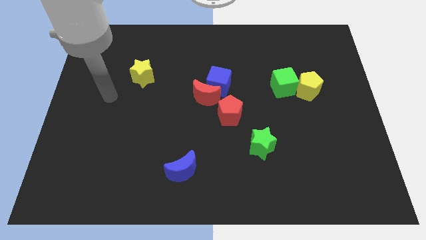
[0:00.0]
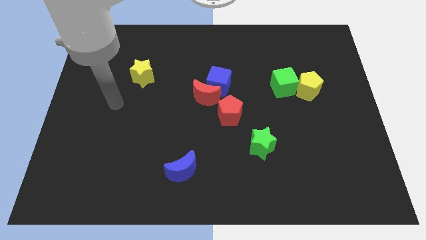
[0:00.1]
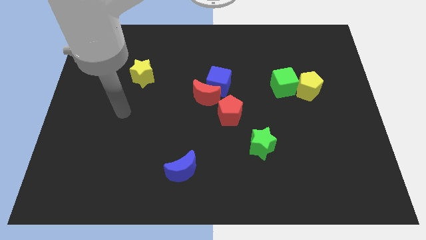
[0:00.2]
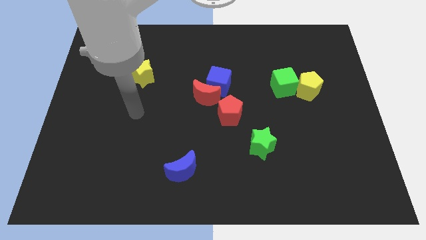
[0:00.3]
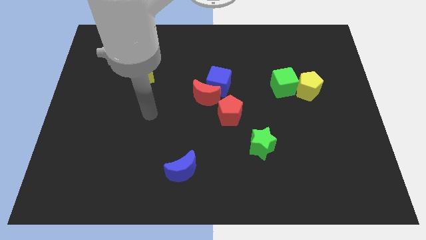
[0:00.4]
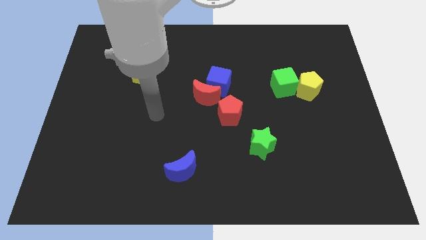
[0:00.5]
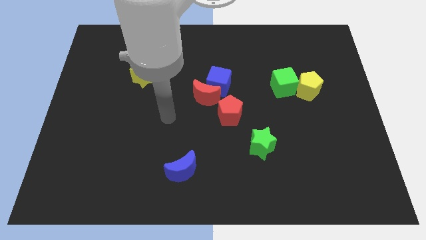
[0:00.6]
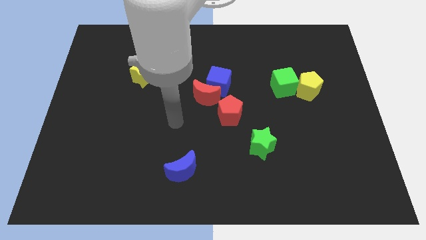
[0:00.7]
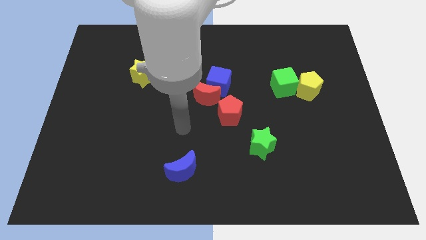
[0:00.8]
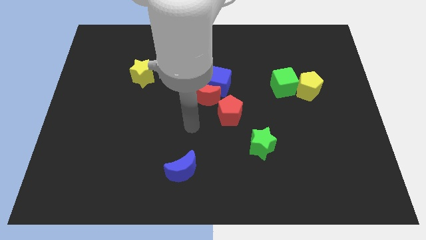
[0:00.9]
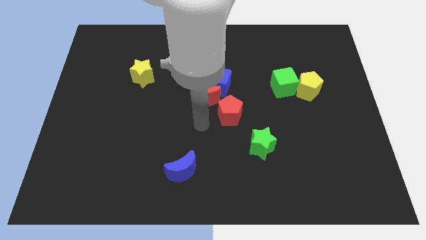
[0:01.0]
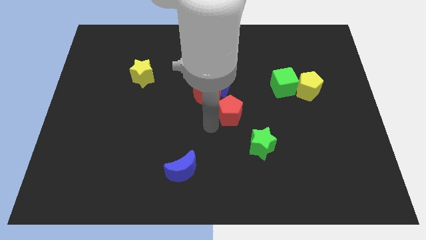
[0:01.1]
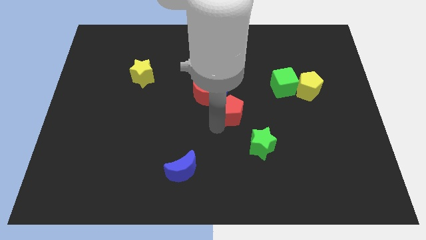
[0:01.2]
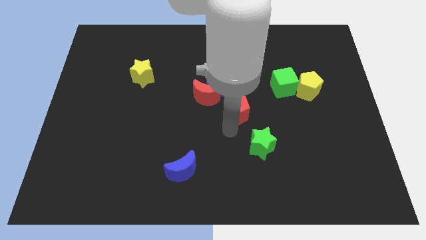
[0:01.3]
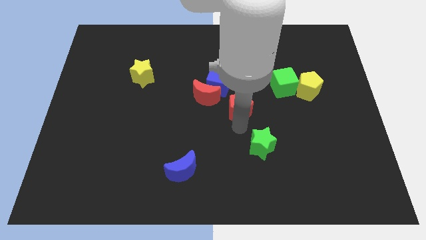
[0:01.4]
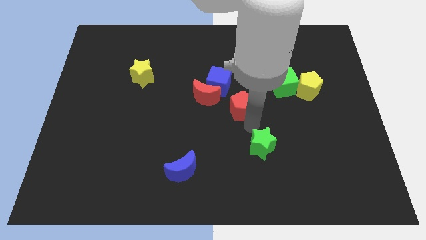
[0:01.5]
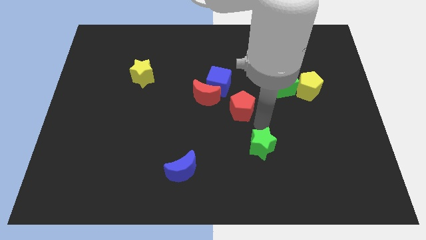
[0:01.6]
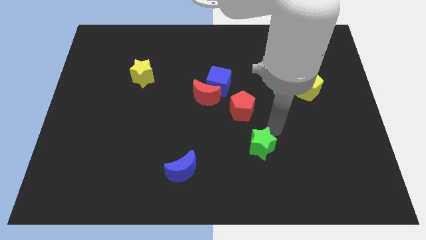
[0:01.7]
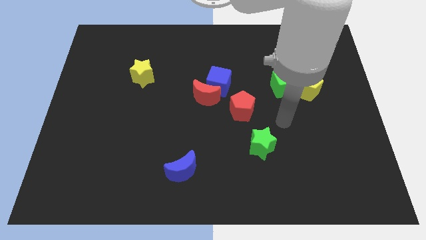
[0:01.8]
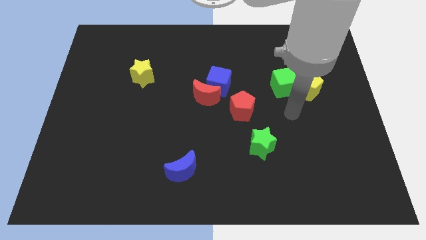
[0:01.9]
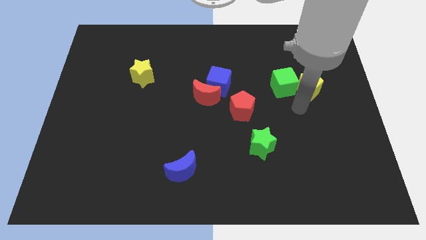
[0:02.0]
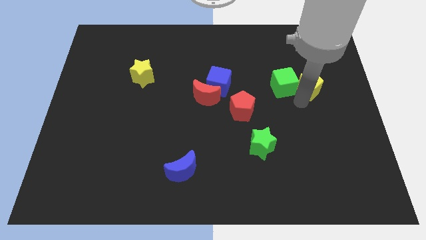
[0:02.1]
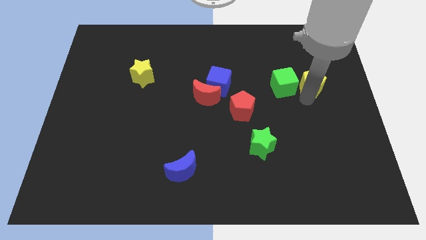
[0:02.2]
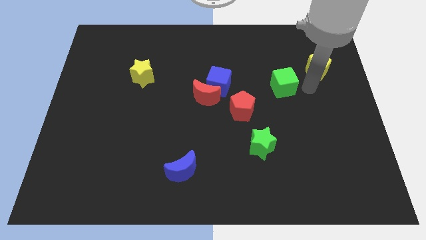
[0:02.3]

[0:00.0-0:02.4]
pull the green cube apart from the yellow pentagon

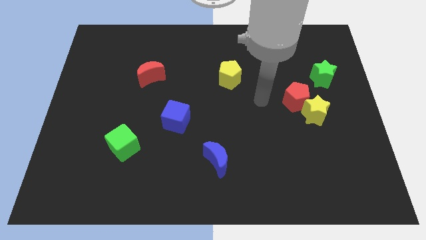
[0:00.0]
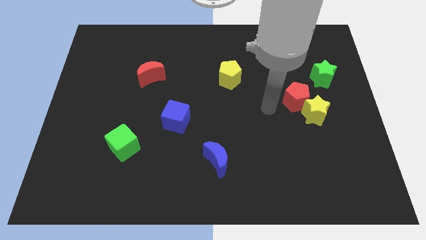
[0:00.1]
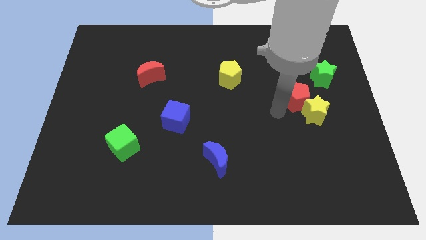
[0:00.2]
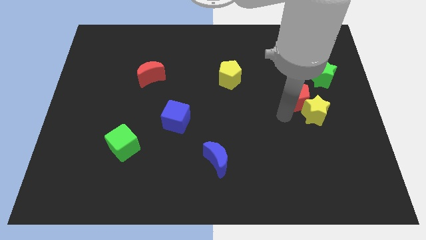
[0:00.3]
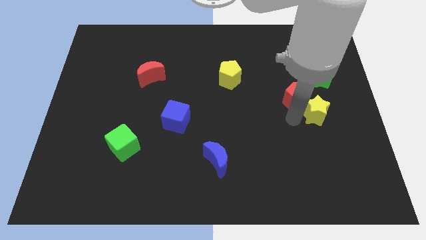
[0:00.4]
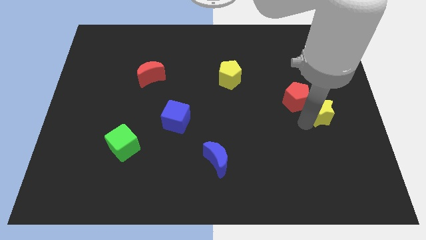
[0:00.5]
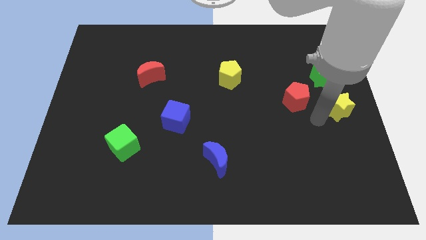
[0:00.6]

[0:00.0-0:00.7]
pull the red pentagon apart from the yellow star

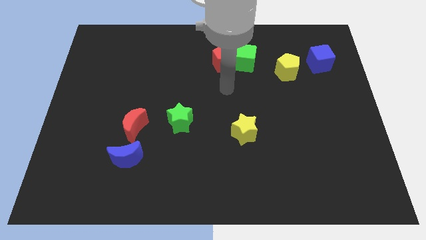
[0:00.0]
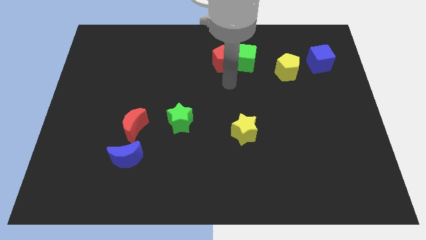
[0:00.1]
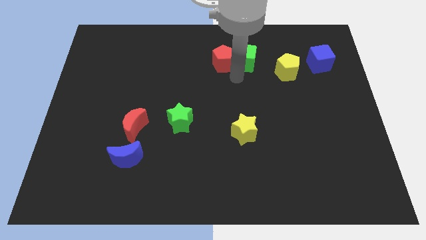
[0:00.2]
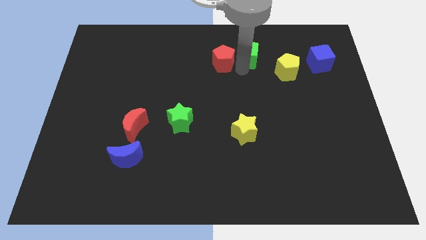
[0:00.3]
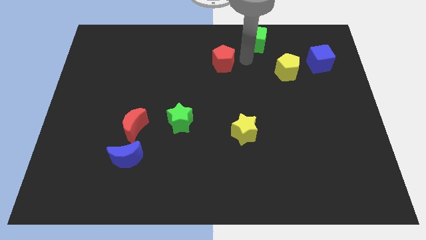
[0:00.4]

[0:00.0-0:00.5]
separate the red pentagon from the green cube

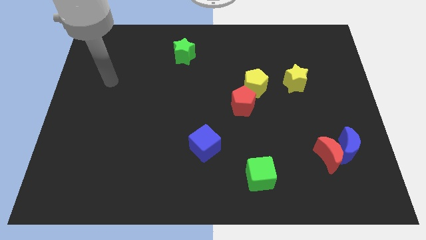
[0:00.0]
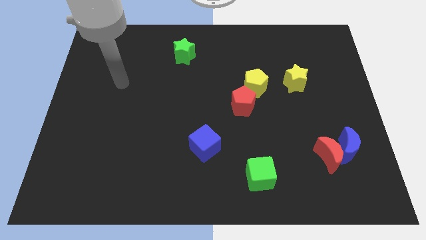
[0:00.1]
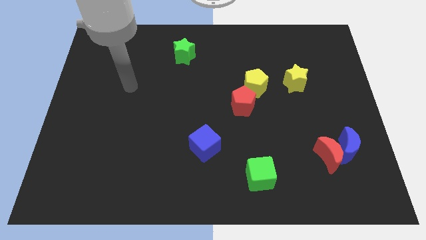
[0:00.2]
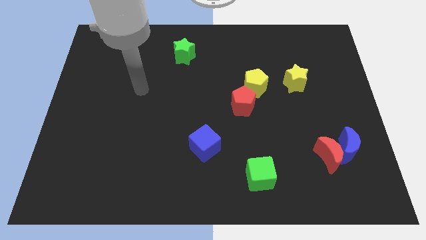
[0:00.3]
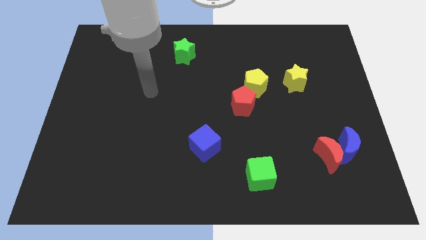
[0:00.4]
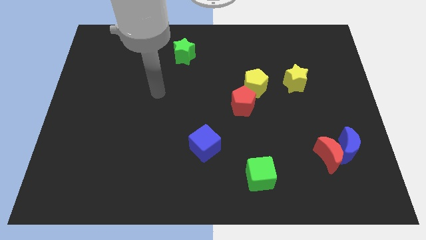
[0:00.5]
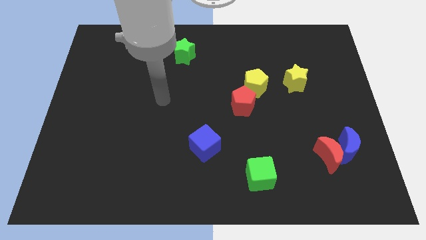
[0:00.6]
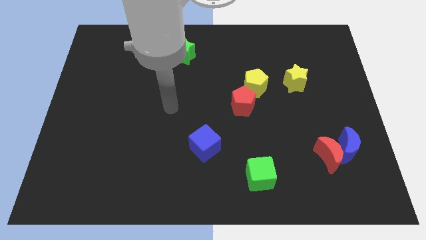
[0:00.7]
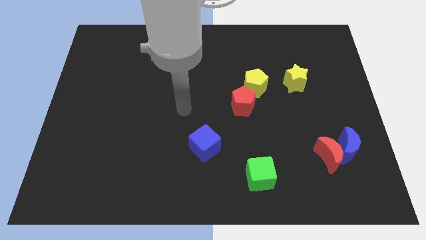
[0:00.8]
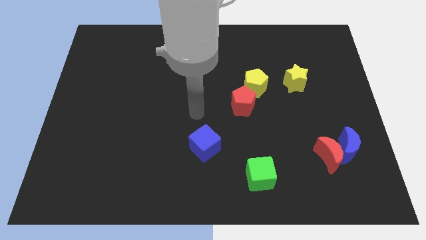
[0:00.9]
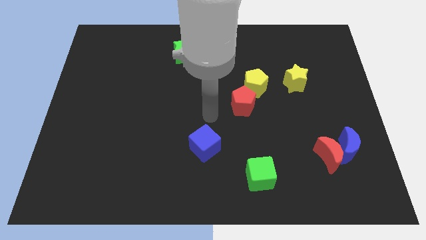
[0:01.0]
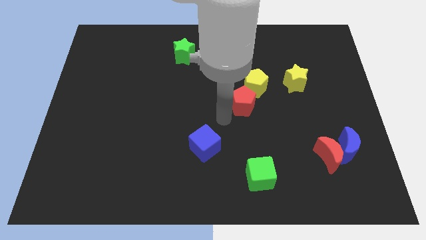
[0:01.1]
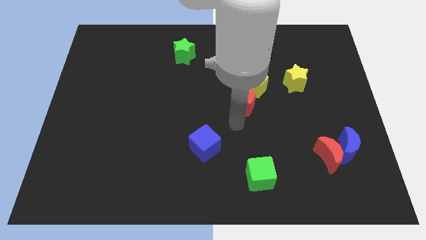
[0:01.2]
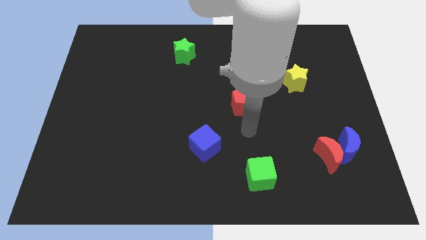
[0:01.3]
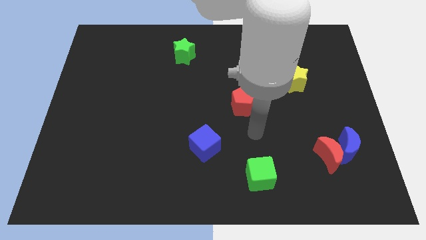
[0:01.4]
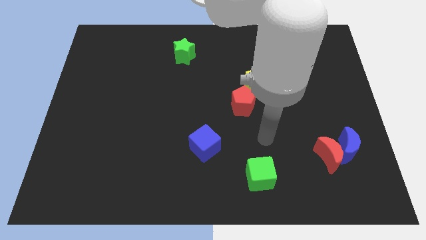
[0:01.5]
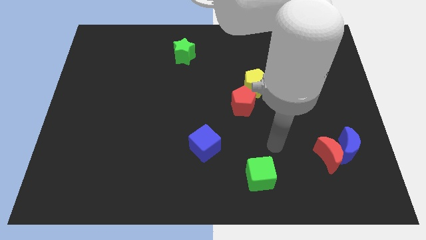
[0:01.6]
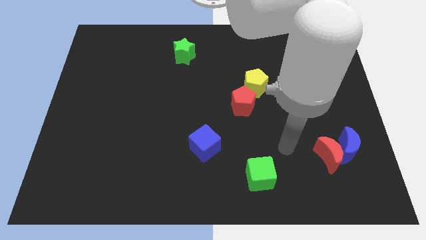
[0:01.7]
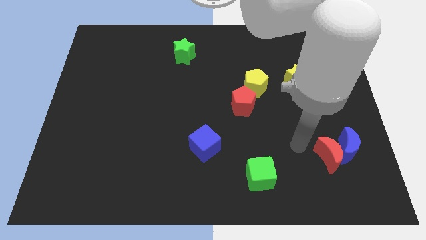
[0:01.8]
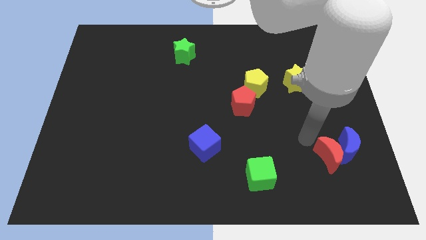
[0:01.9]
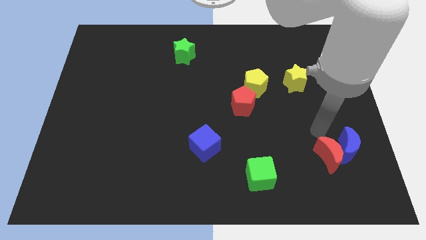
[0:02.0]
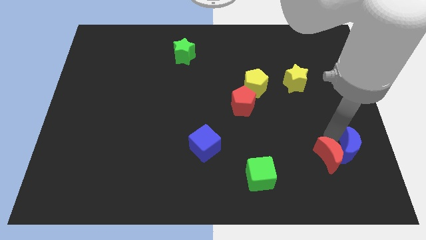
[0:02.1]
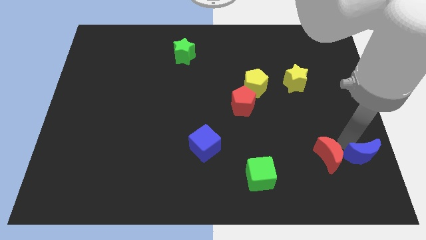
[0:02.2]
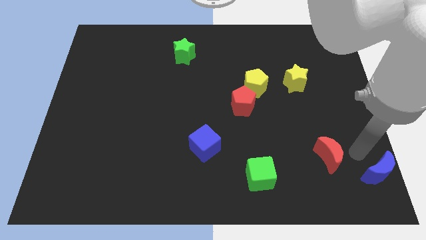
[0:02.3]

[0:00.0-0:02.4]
move the red moon away from the blue moon

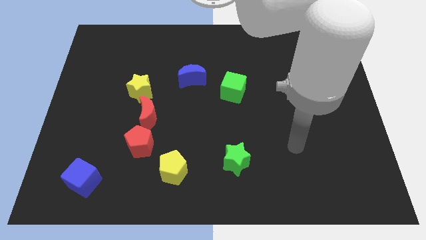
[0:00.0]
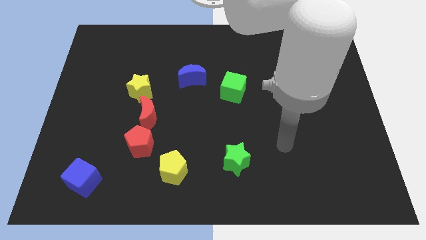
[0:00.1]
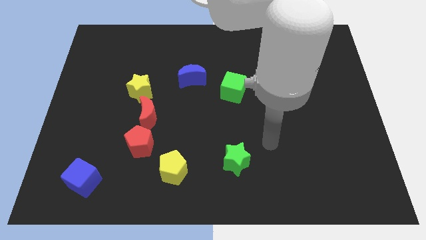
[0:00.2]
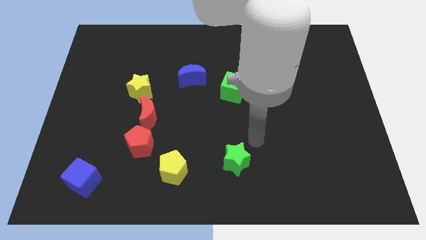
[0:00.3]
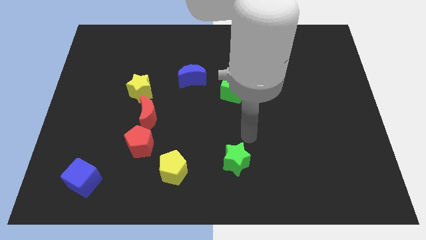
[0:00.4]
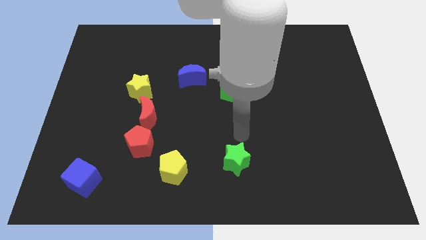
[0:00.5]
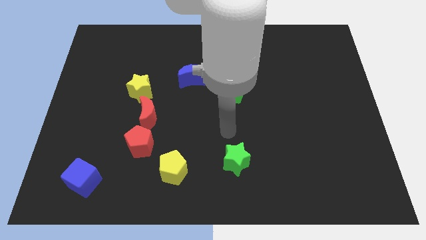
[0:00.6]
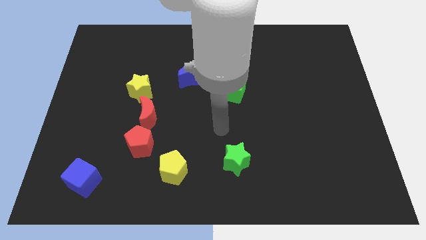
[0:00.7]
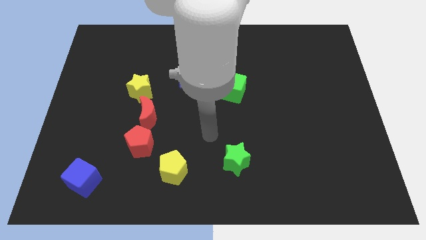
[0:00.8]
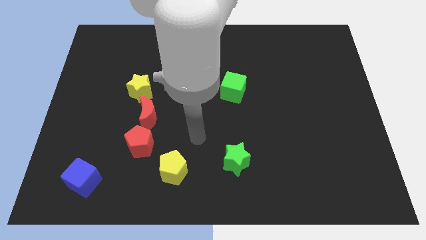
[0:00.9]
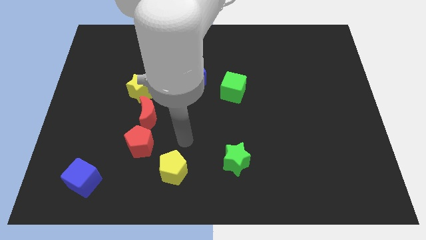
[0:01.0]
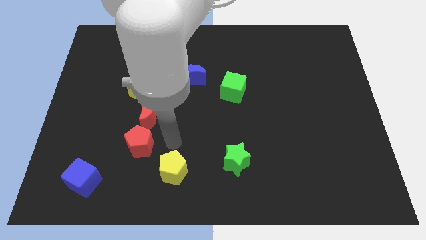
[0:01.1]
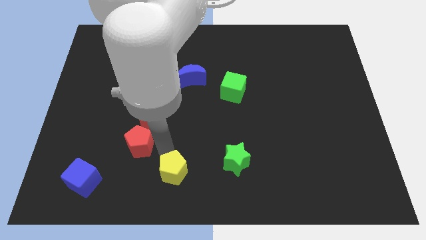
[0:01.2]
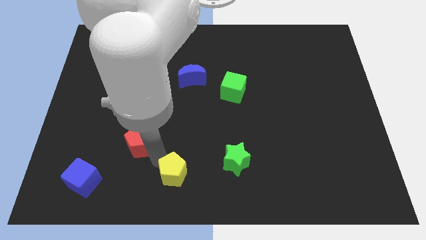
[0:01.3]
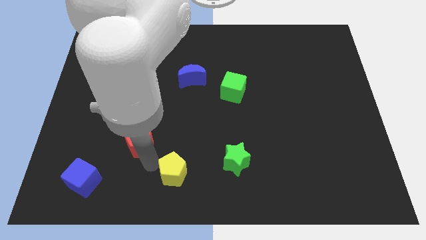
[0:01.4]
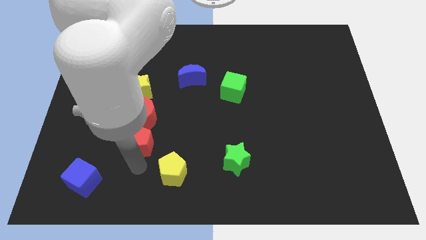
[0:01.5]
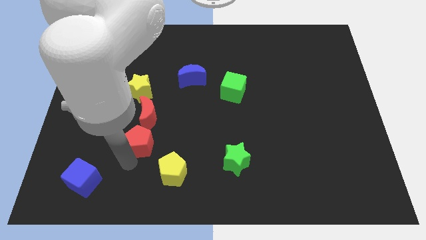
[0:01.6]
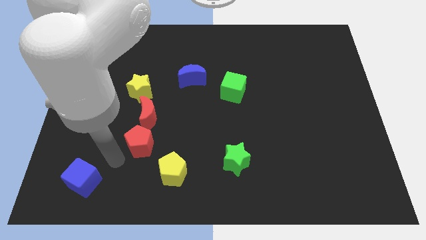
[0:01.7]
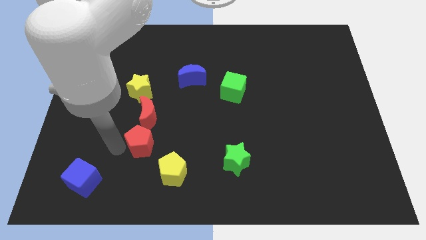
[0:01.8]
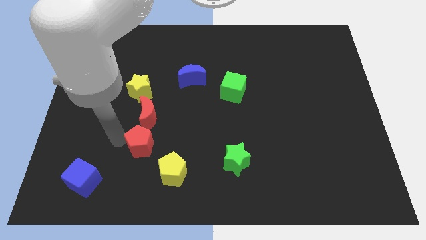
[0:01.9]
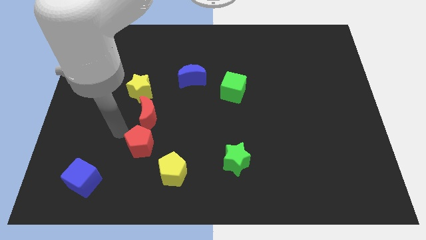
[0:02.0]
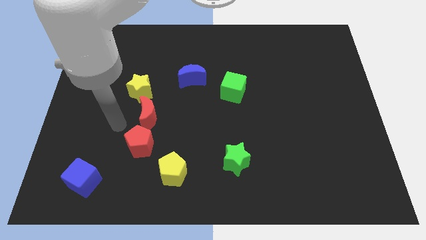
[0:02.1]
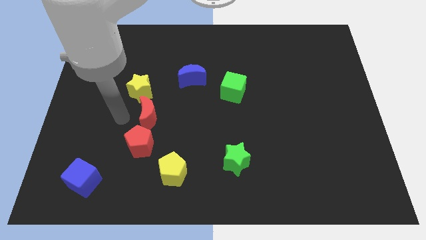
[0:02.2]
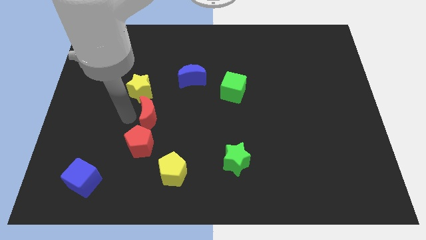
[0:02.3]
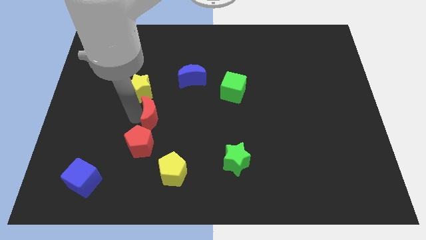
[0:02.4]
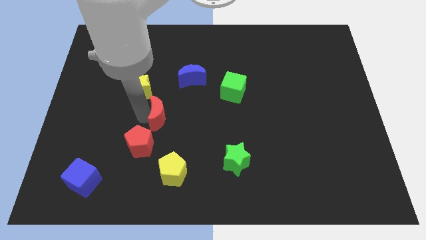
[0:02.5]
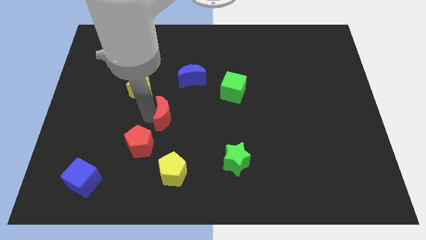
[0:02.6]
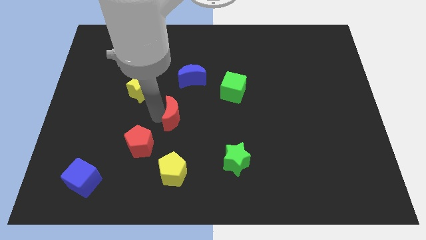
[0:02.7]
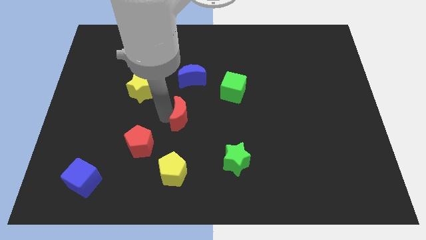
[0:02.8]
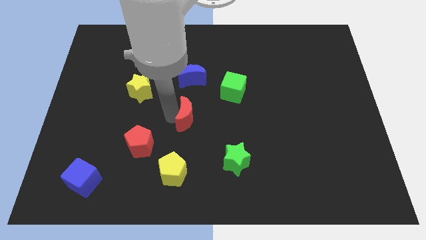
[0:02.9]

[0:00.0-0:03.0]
move the red moon away from the red pentagon and yellow star

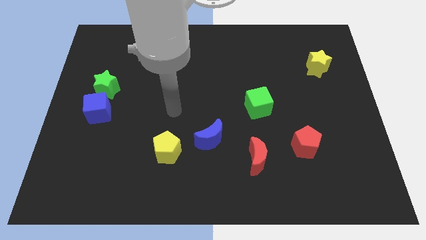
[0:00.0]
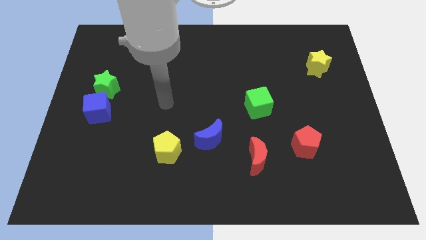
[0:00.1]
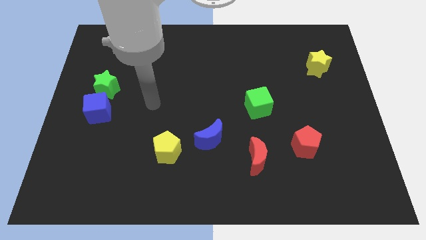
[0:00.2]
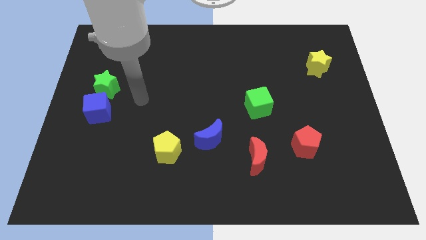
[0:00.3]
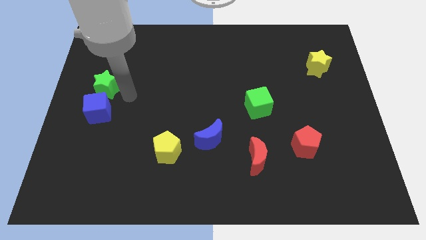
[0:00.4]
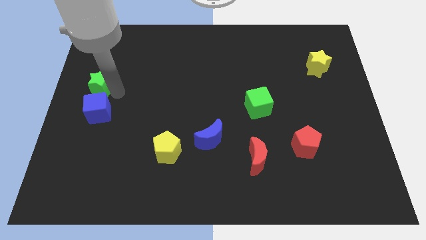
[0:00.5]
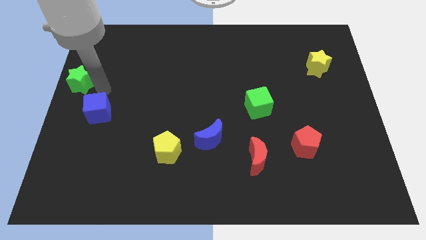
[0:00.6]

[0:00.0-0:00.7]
separate the blue cube from the green star
